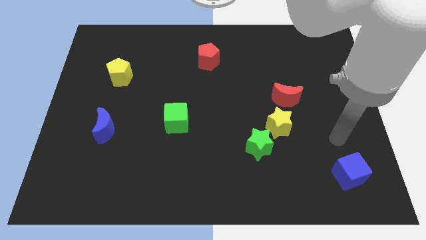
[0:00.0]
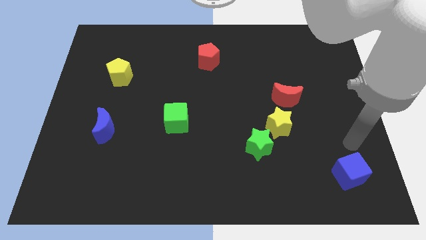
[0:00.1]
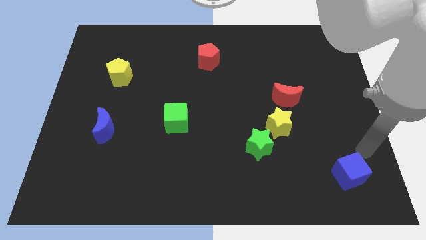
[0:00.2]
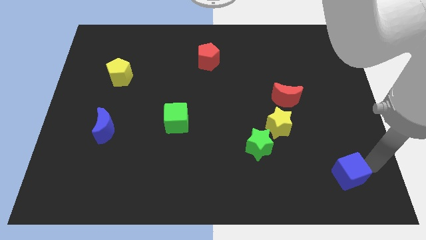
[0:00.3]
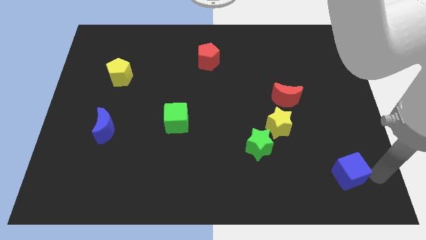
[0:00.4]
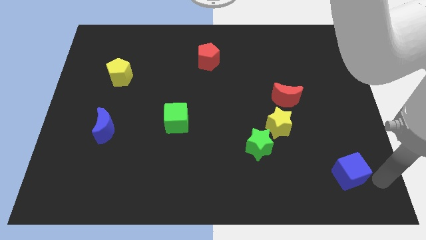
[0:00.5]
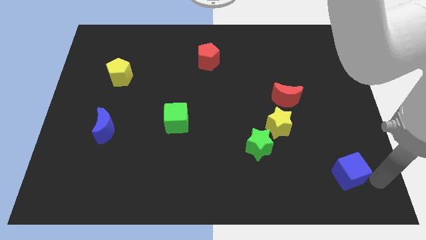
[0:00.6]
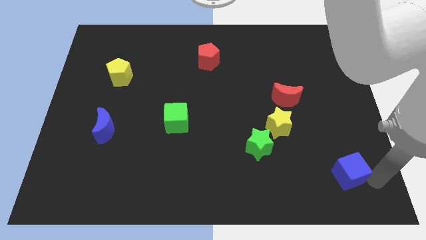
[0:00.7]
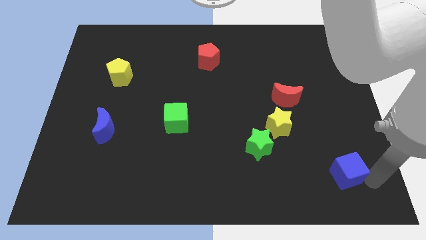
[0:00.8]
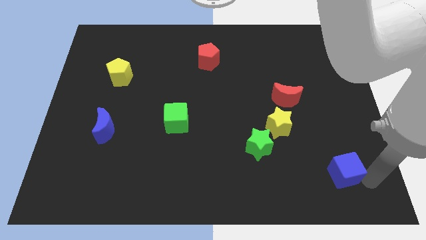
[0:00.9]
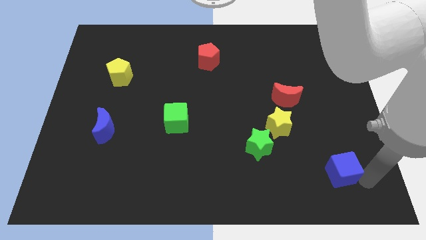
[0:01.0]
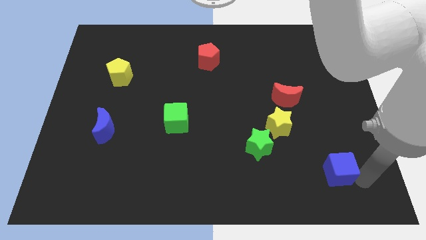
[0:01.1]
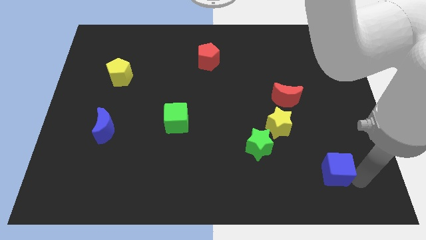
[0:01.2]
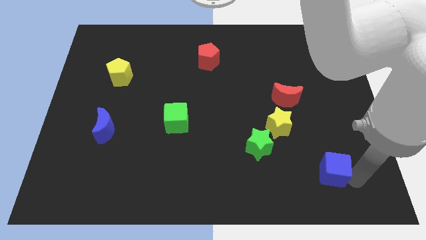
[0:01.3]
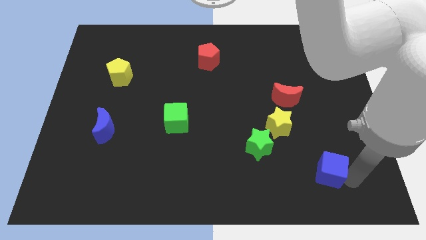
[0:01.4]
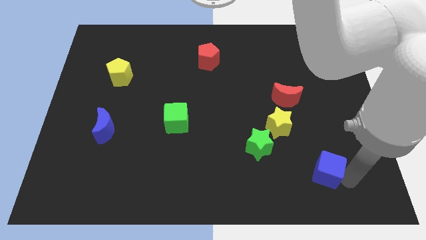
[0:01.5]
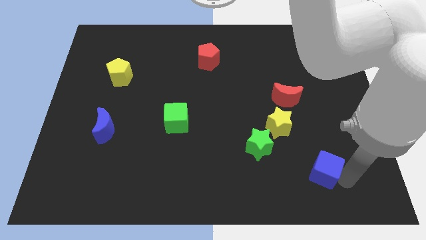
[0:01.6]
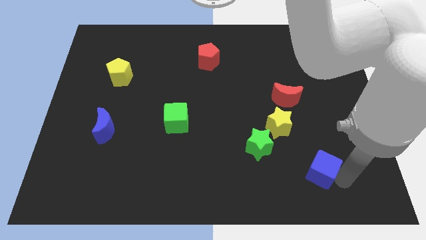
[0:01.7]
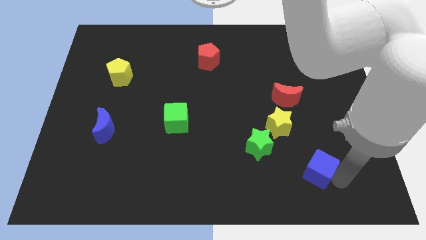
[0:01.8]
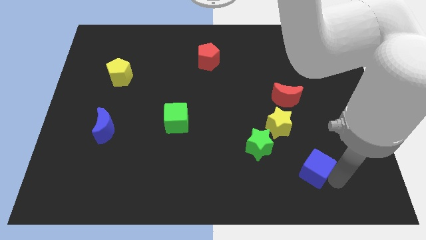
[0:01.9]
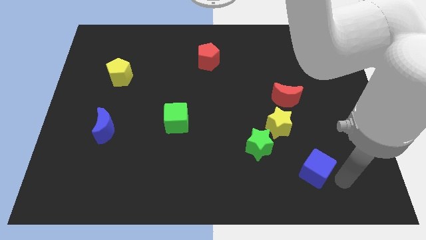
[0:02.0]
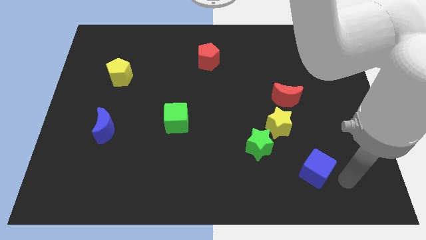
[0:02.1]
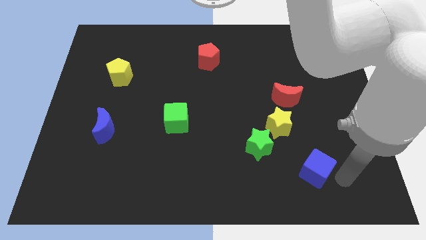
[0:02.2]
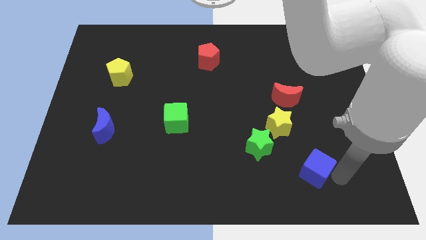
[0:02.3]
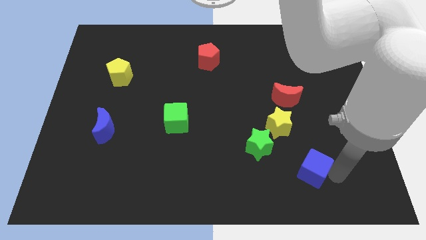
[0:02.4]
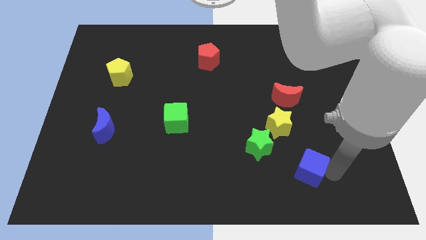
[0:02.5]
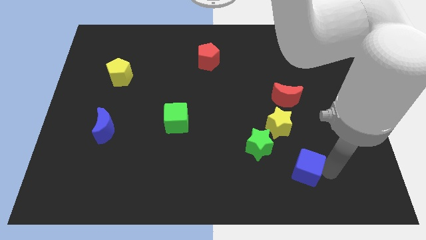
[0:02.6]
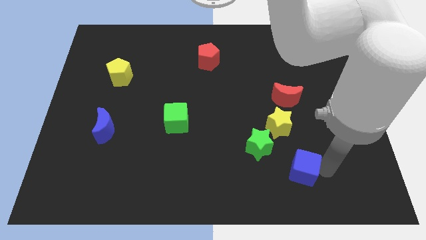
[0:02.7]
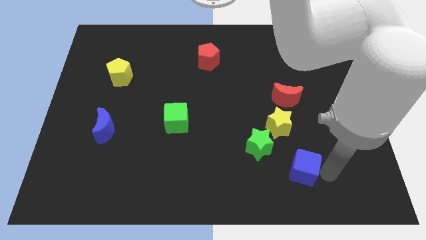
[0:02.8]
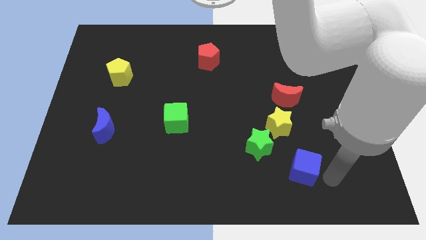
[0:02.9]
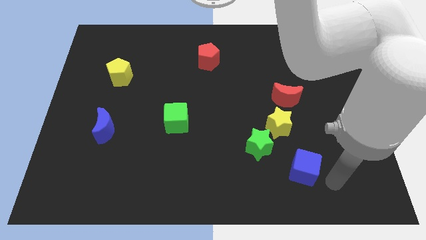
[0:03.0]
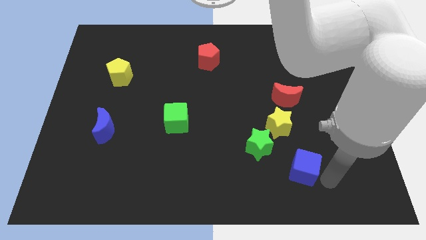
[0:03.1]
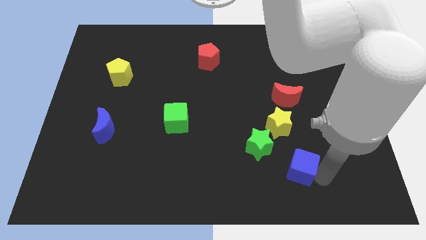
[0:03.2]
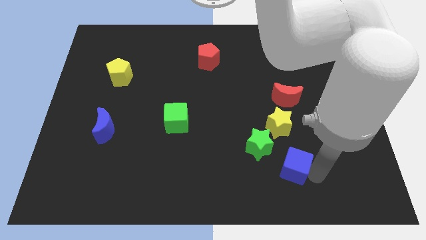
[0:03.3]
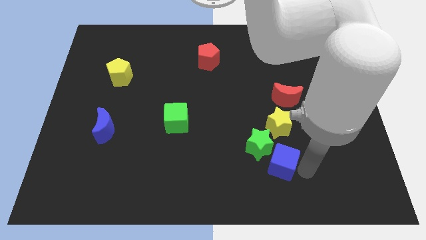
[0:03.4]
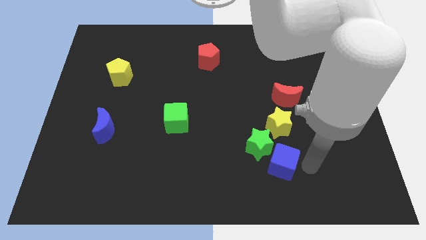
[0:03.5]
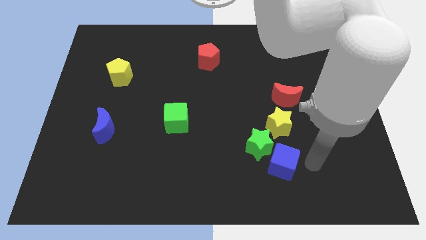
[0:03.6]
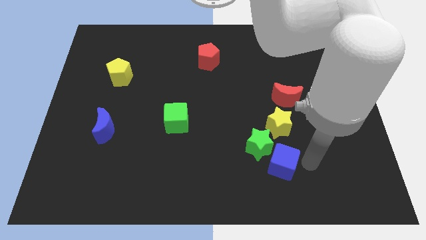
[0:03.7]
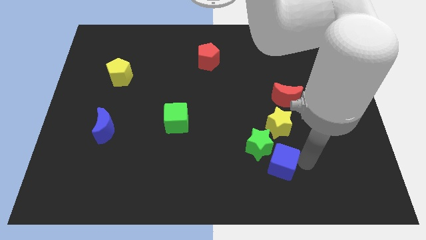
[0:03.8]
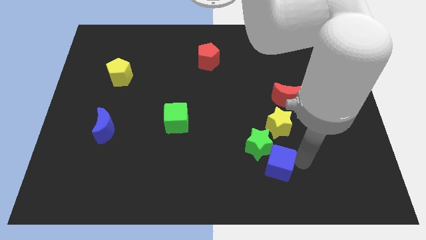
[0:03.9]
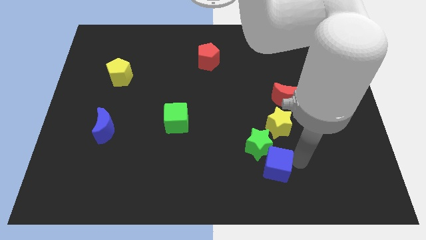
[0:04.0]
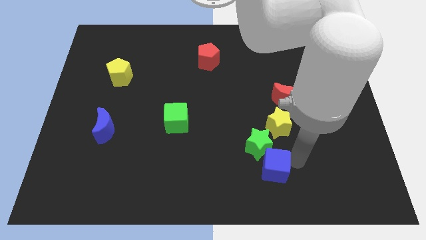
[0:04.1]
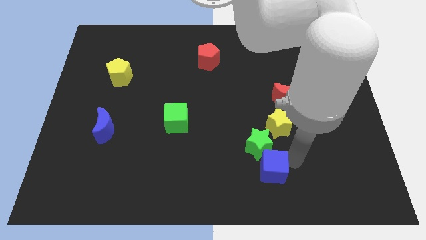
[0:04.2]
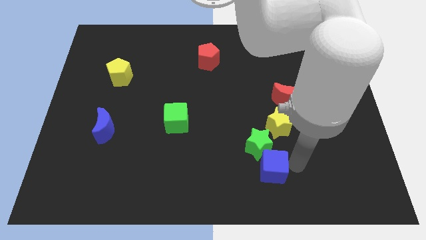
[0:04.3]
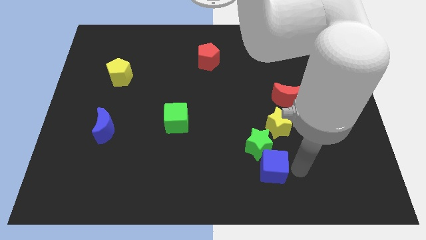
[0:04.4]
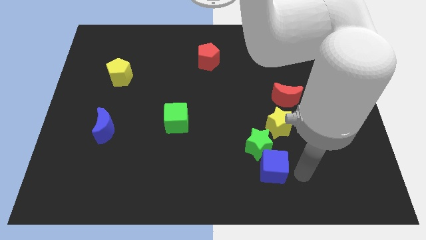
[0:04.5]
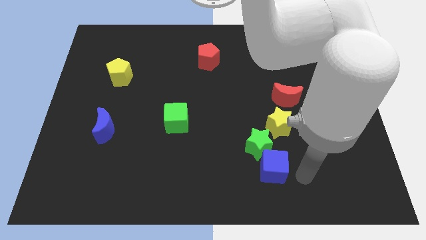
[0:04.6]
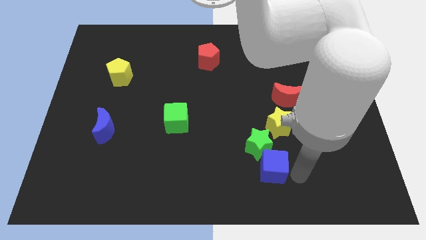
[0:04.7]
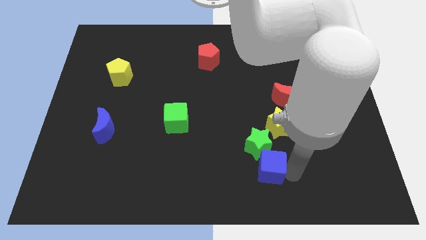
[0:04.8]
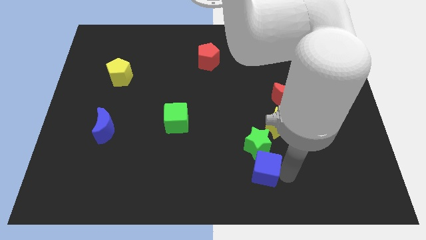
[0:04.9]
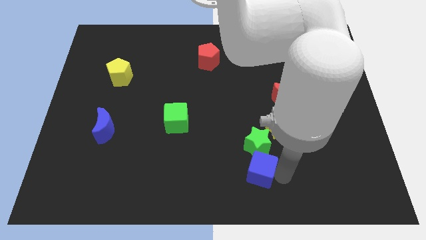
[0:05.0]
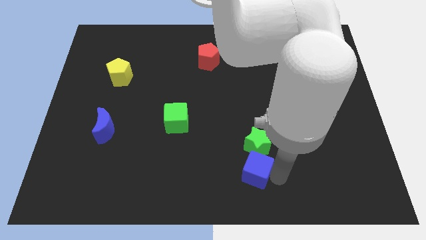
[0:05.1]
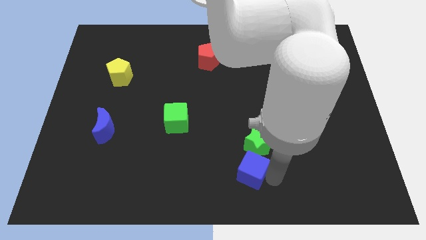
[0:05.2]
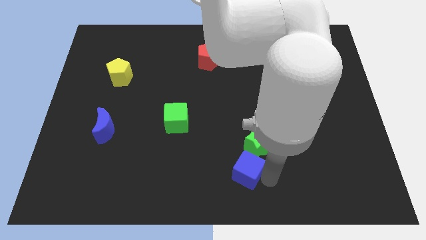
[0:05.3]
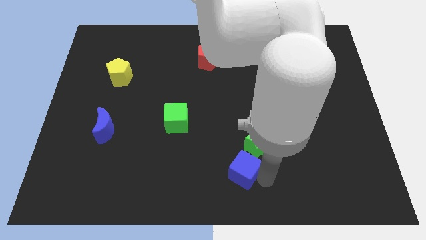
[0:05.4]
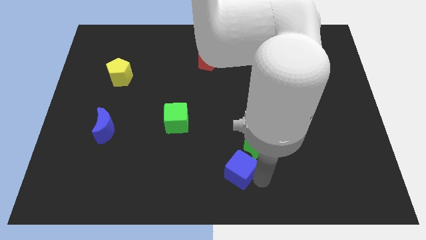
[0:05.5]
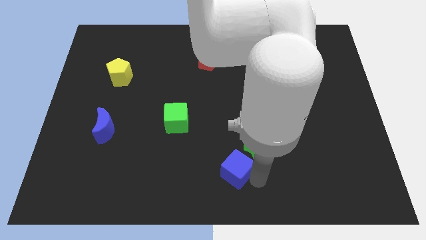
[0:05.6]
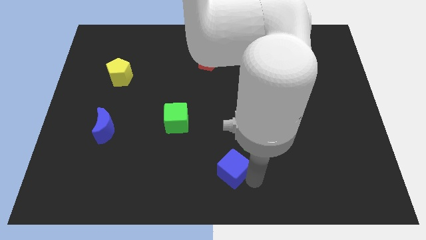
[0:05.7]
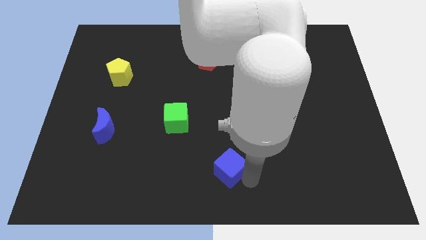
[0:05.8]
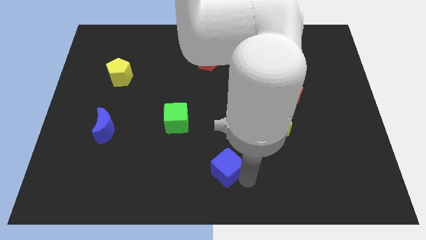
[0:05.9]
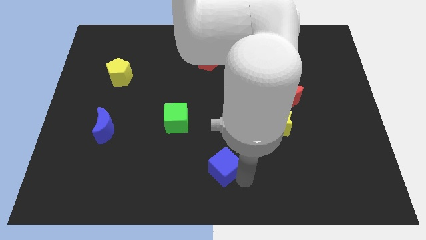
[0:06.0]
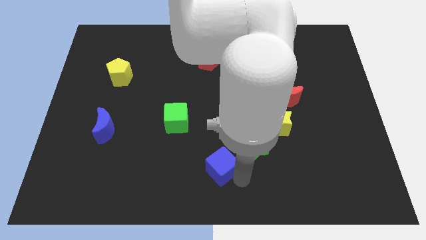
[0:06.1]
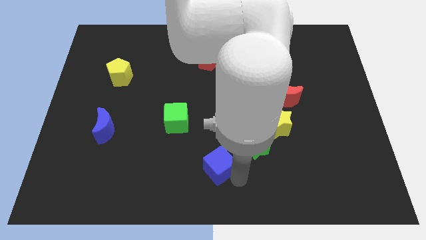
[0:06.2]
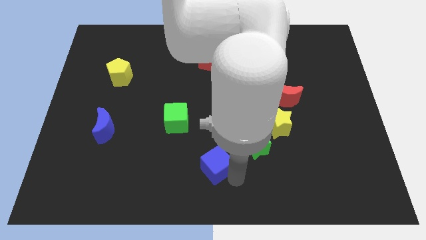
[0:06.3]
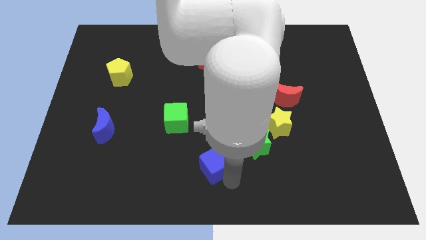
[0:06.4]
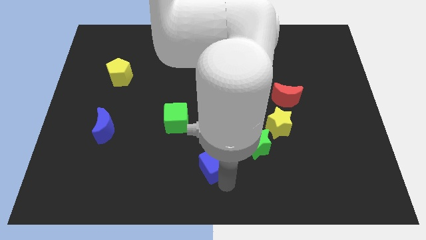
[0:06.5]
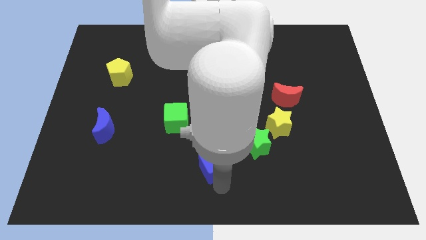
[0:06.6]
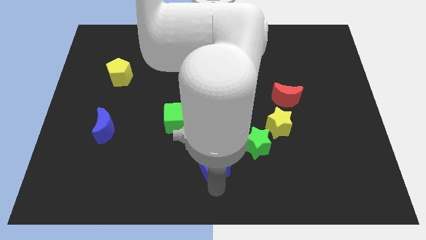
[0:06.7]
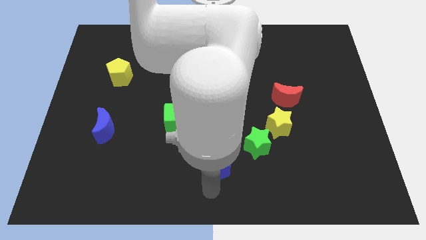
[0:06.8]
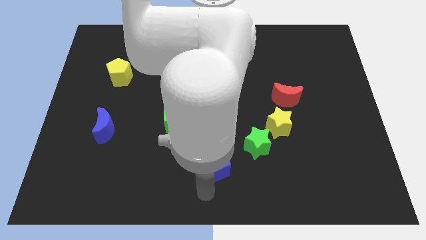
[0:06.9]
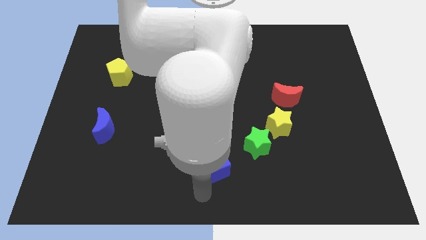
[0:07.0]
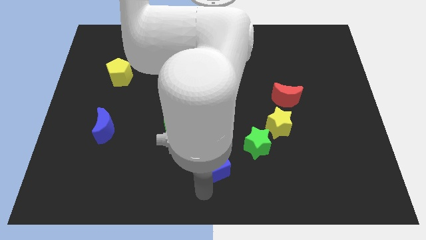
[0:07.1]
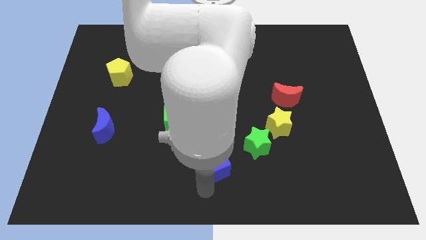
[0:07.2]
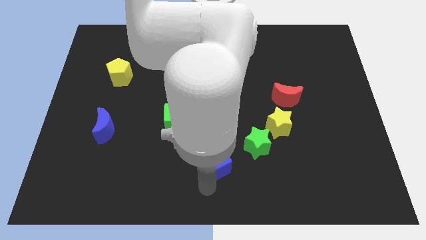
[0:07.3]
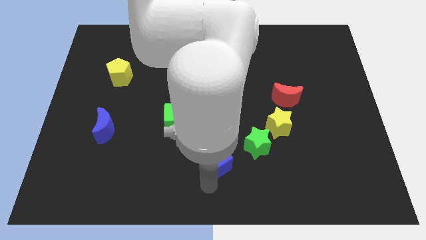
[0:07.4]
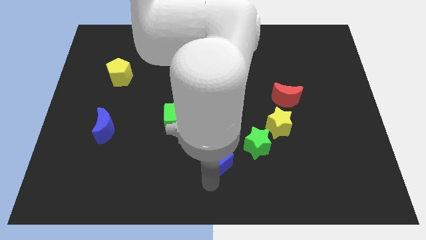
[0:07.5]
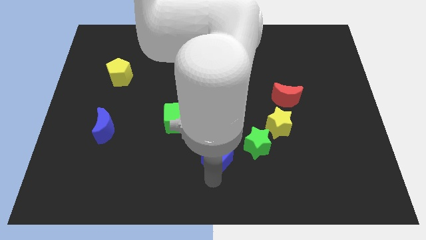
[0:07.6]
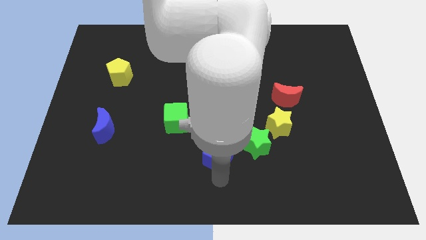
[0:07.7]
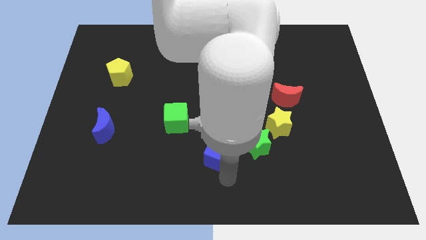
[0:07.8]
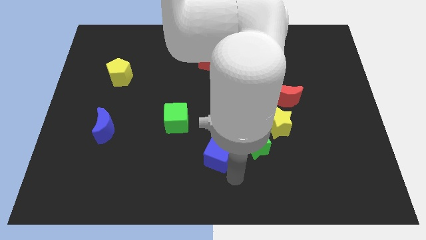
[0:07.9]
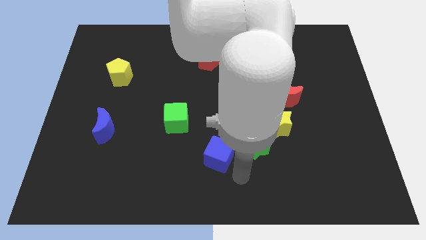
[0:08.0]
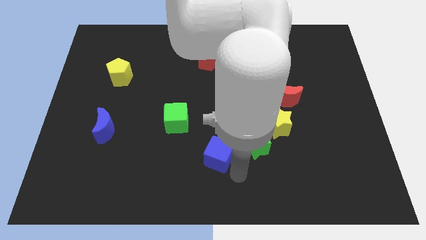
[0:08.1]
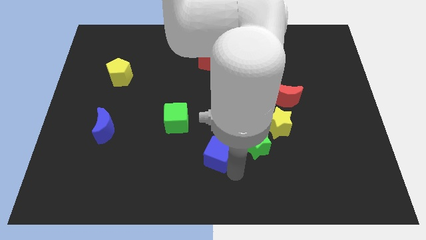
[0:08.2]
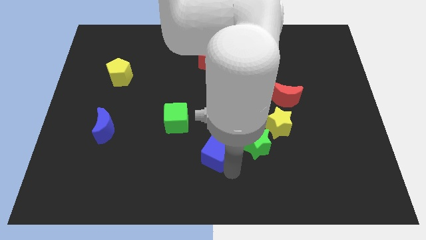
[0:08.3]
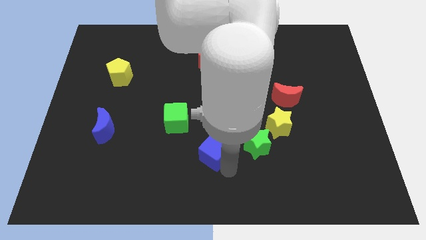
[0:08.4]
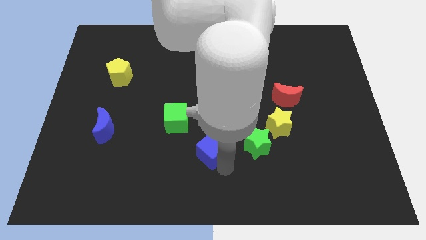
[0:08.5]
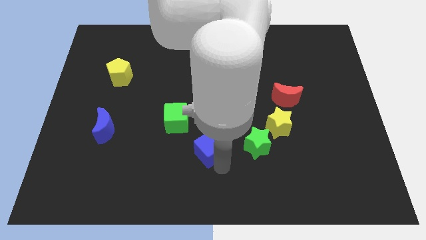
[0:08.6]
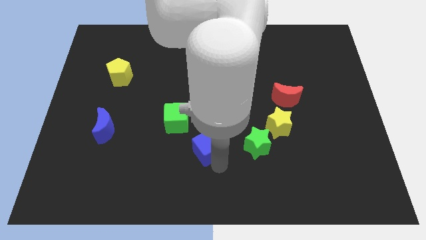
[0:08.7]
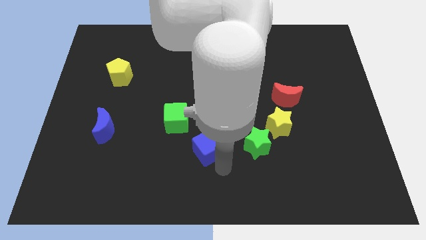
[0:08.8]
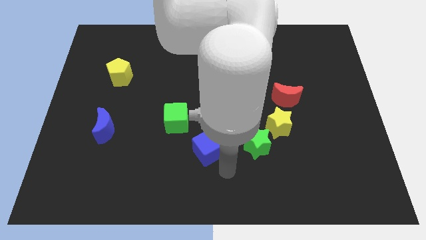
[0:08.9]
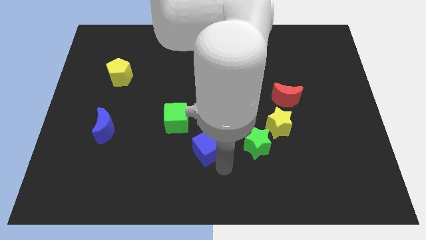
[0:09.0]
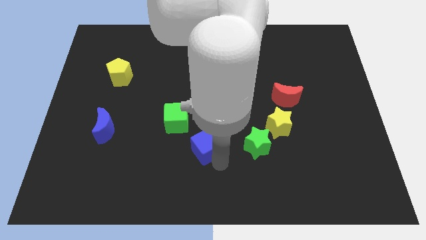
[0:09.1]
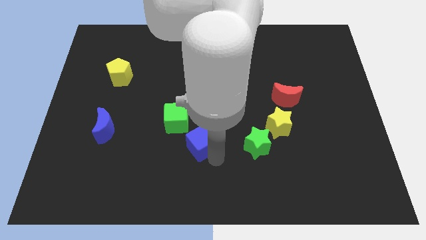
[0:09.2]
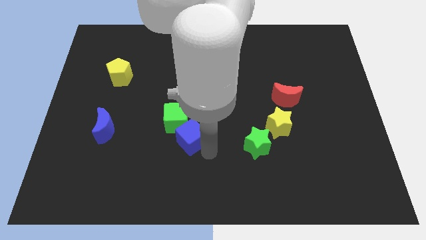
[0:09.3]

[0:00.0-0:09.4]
slide the blue cube to the green cube
